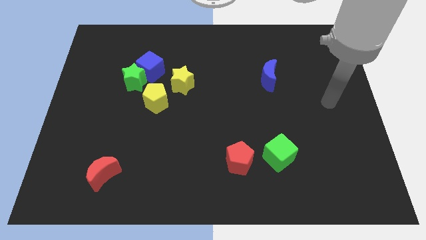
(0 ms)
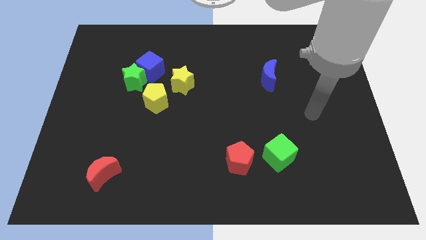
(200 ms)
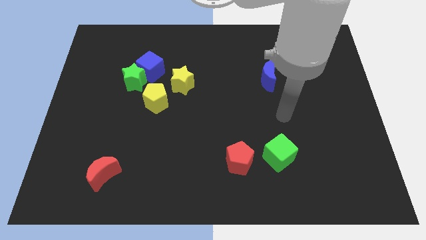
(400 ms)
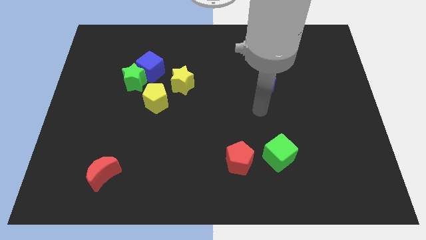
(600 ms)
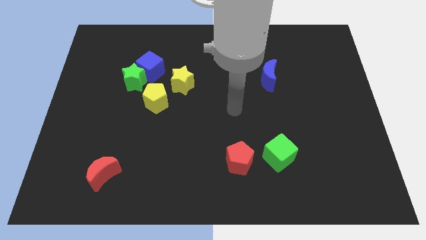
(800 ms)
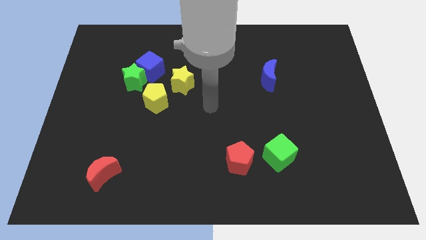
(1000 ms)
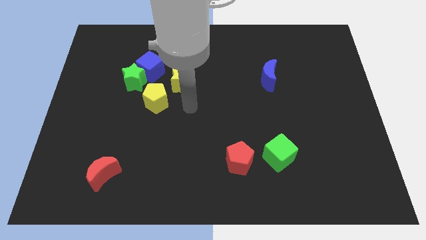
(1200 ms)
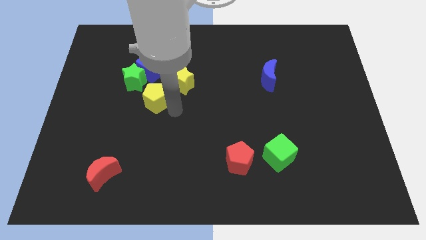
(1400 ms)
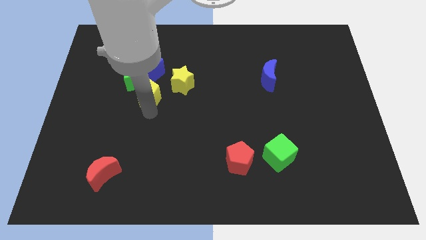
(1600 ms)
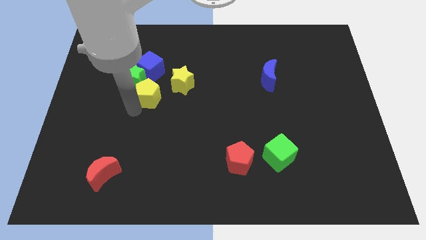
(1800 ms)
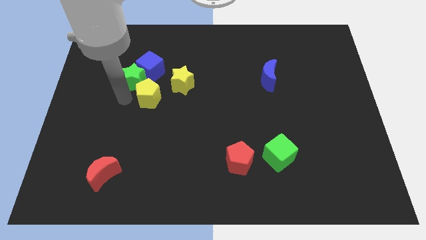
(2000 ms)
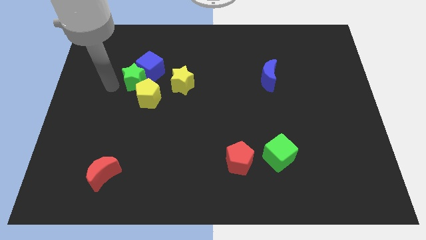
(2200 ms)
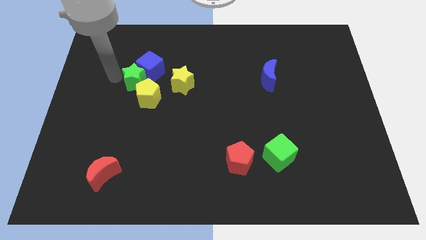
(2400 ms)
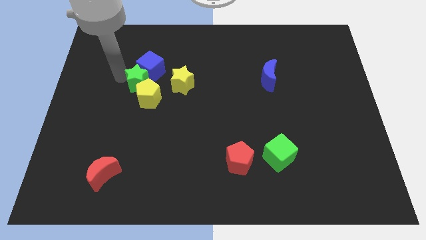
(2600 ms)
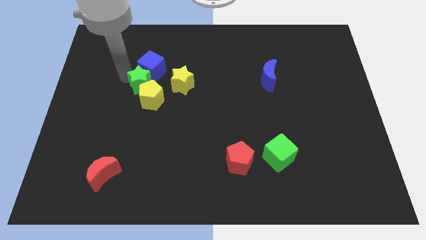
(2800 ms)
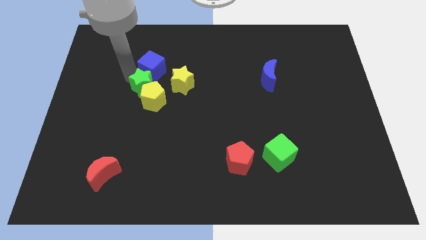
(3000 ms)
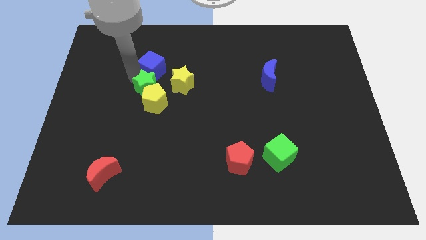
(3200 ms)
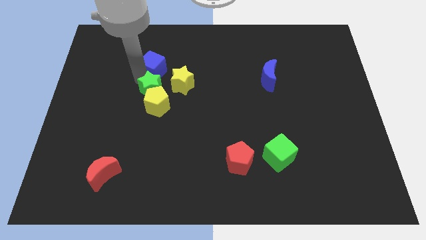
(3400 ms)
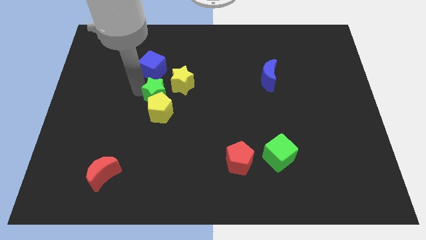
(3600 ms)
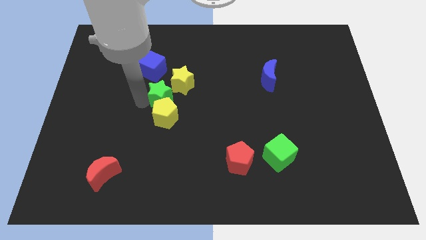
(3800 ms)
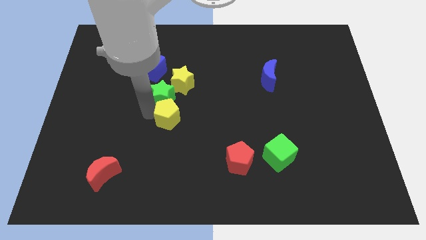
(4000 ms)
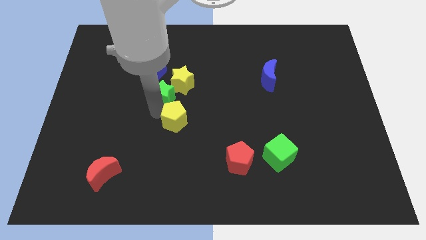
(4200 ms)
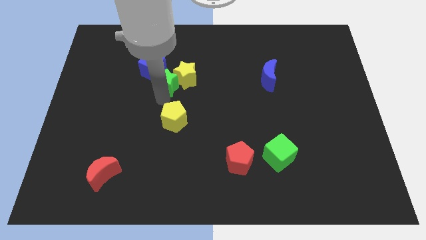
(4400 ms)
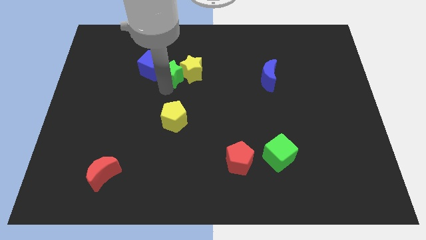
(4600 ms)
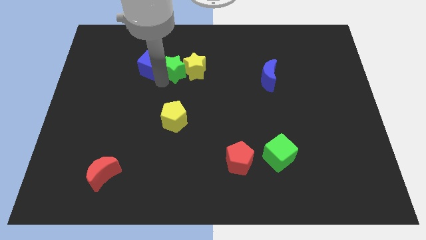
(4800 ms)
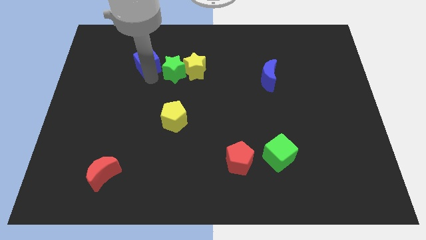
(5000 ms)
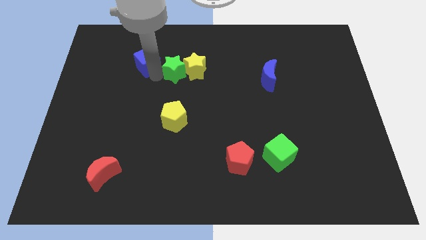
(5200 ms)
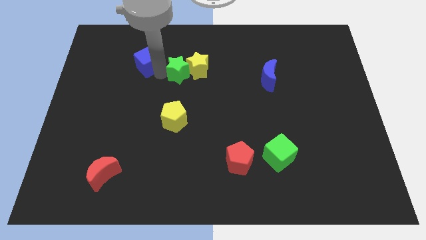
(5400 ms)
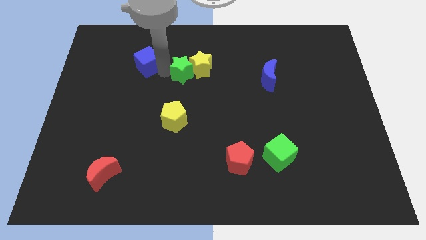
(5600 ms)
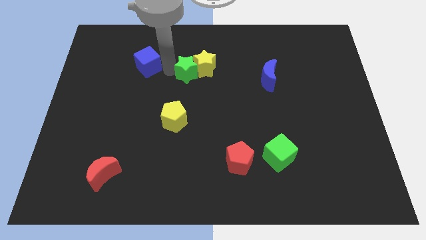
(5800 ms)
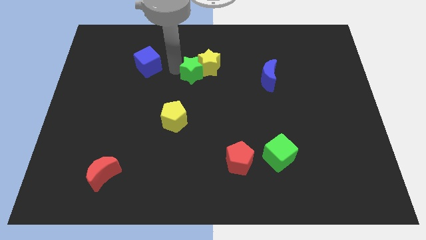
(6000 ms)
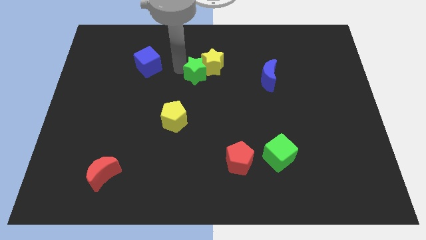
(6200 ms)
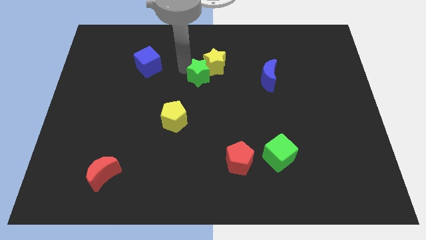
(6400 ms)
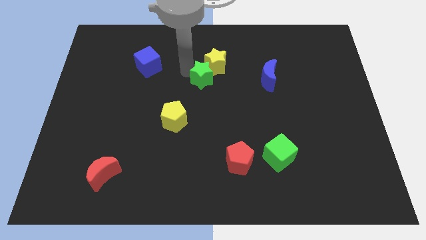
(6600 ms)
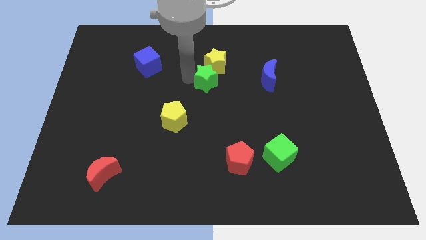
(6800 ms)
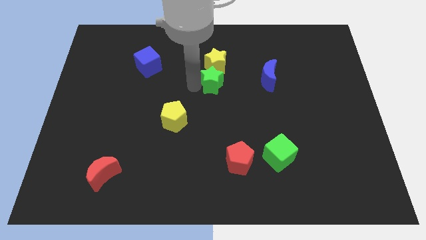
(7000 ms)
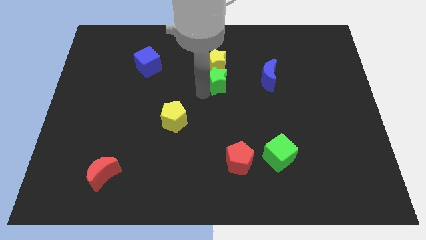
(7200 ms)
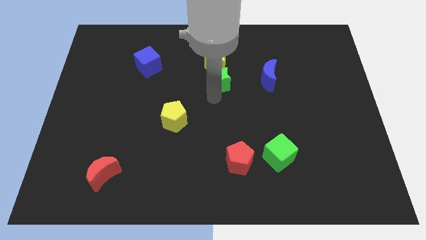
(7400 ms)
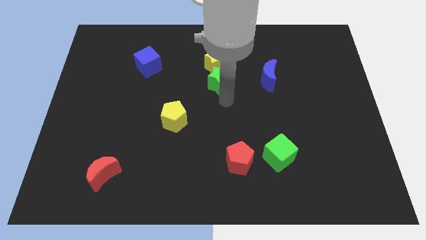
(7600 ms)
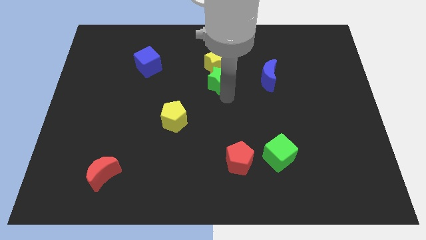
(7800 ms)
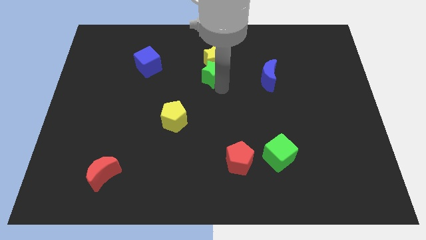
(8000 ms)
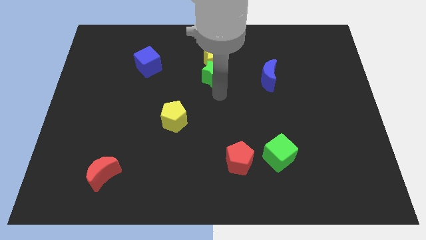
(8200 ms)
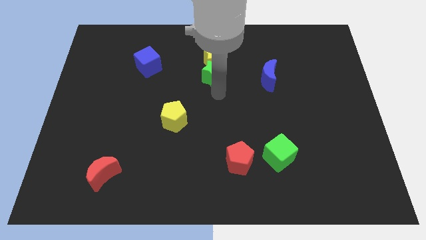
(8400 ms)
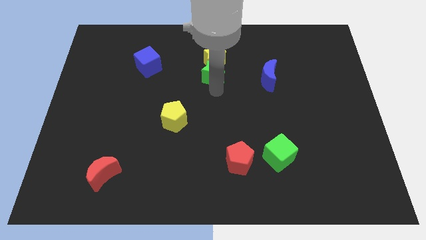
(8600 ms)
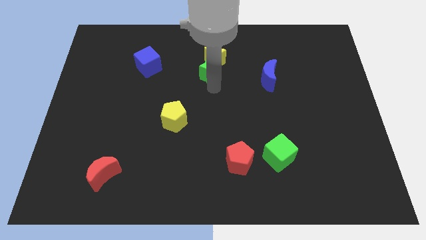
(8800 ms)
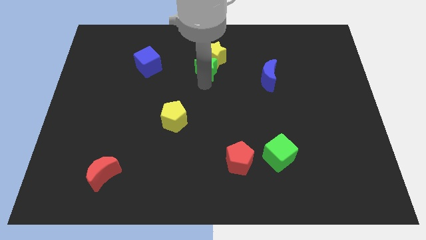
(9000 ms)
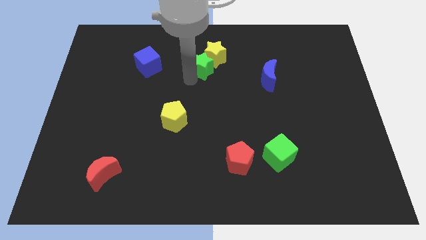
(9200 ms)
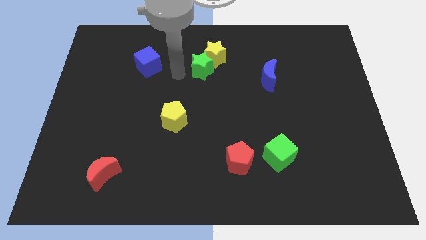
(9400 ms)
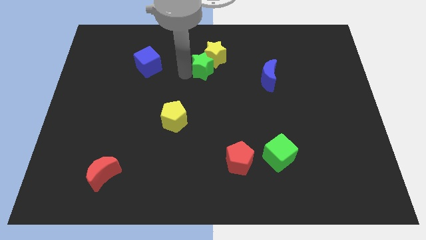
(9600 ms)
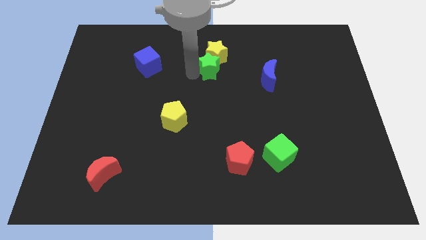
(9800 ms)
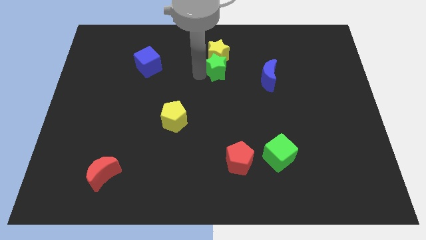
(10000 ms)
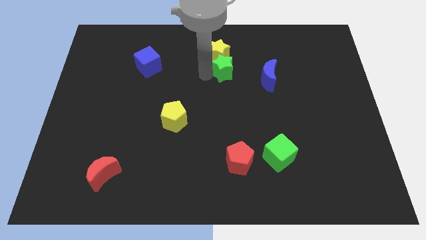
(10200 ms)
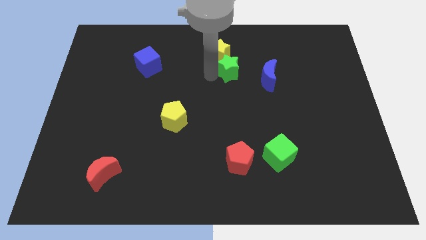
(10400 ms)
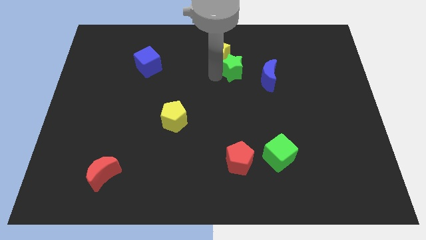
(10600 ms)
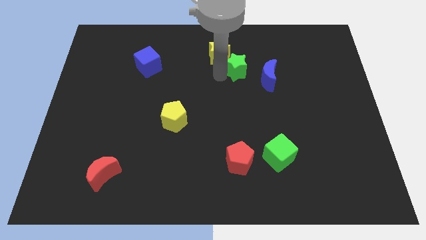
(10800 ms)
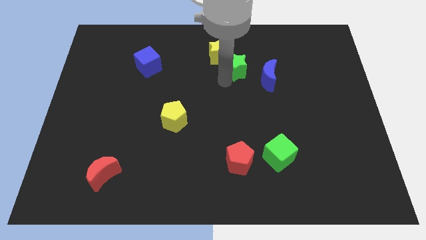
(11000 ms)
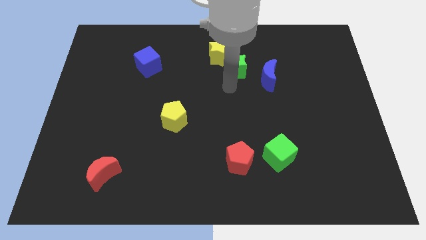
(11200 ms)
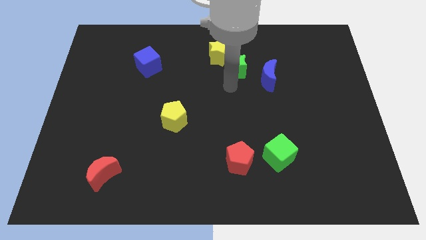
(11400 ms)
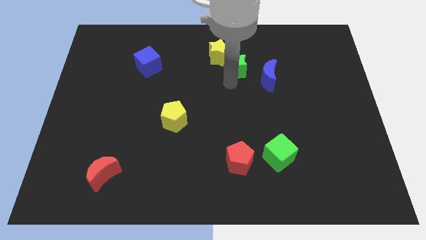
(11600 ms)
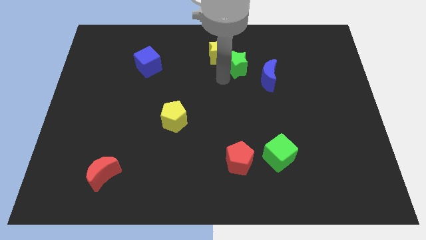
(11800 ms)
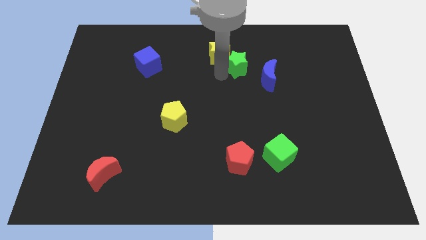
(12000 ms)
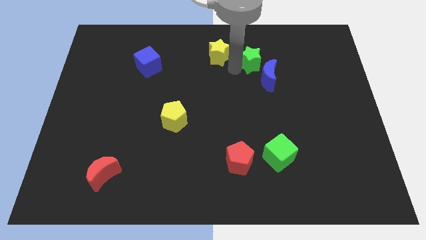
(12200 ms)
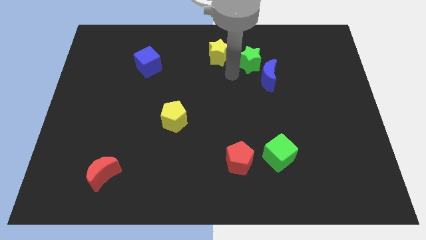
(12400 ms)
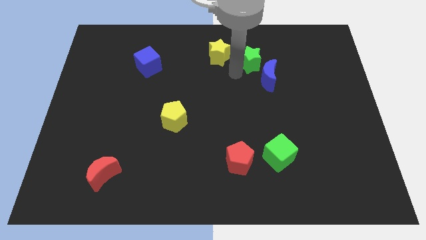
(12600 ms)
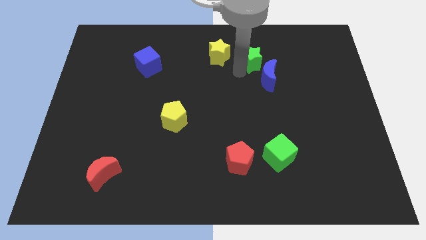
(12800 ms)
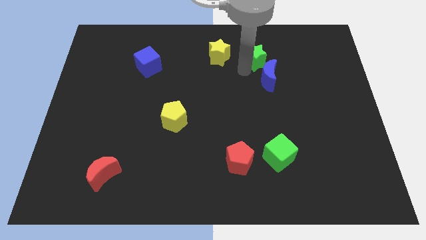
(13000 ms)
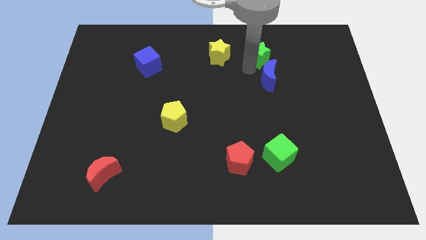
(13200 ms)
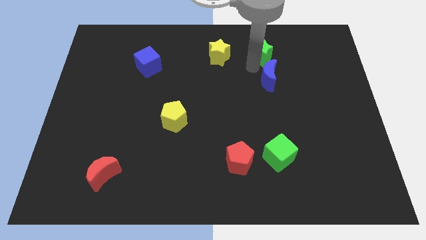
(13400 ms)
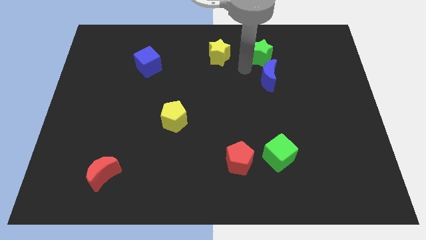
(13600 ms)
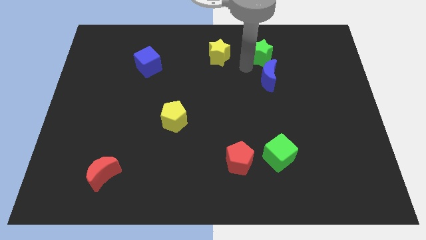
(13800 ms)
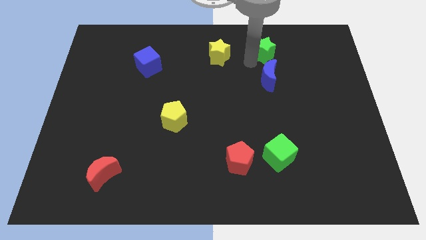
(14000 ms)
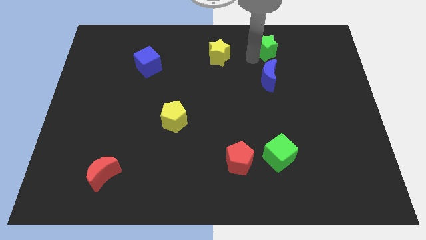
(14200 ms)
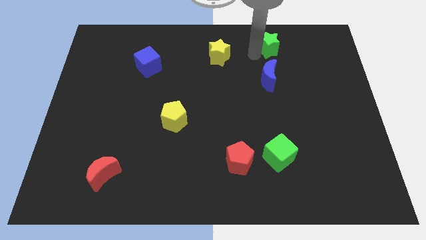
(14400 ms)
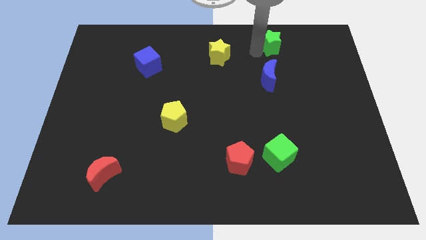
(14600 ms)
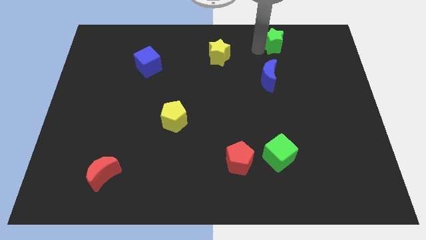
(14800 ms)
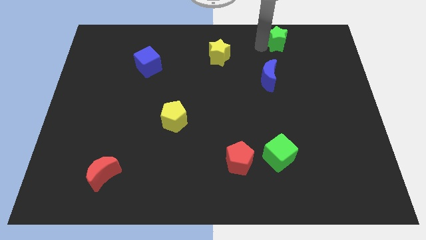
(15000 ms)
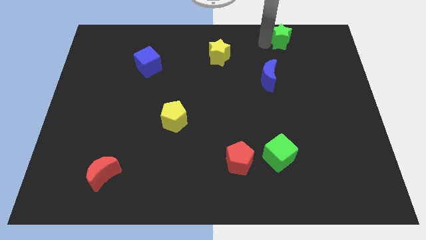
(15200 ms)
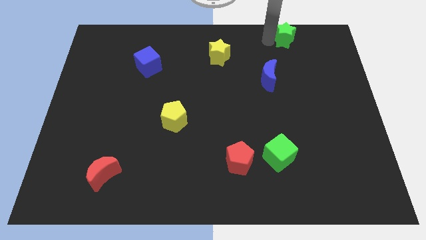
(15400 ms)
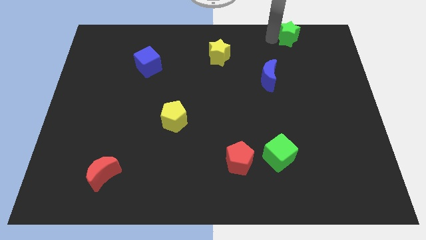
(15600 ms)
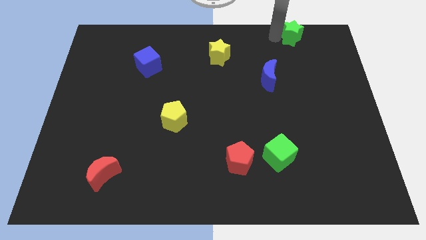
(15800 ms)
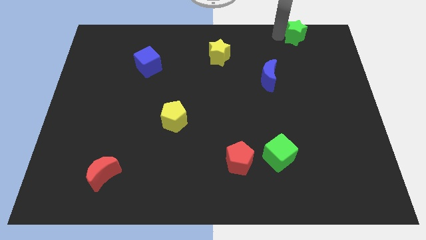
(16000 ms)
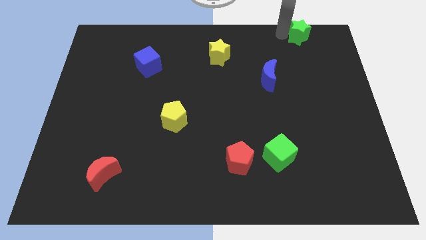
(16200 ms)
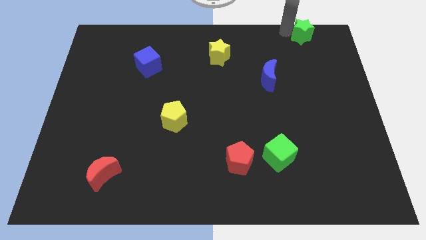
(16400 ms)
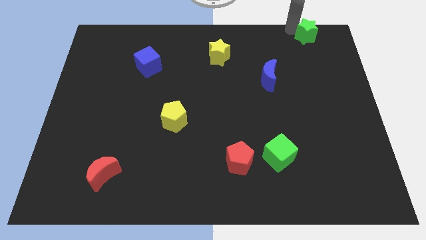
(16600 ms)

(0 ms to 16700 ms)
move the green star to the top right of the board
